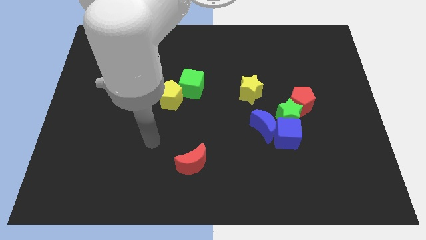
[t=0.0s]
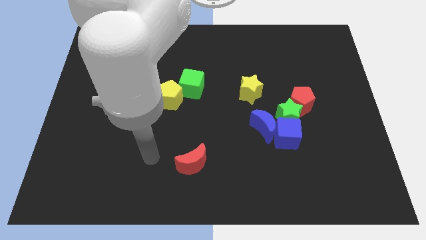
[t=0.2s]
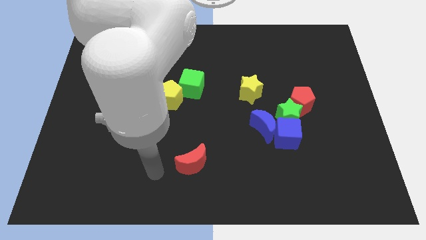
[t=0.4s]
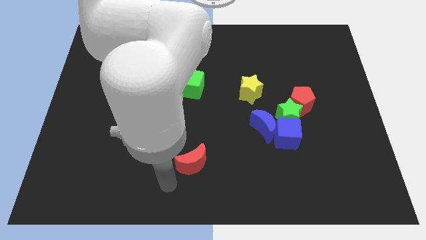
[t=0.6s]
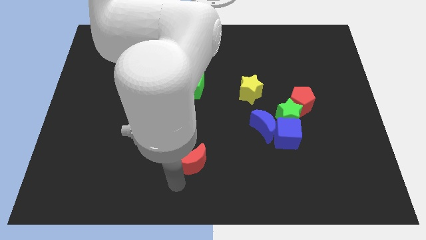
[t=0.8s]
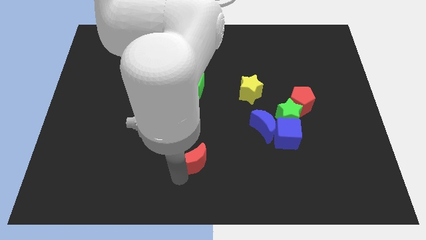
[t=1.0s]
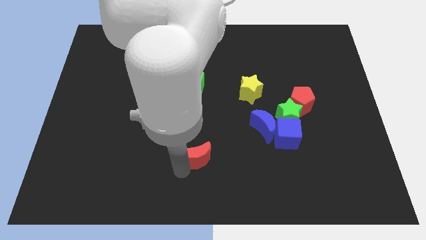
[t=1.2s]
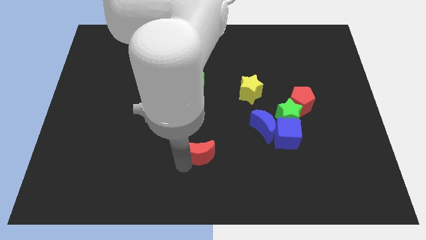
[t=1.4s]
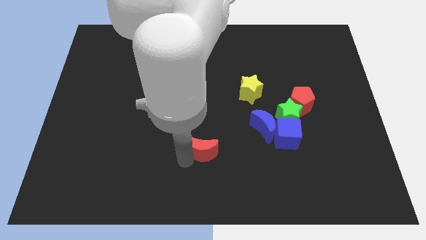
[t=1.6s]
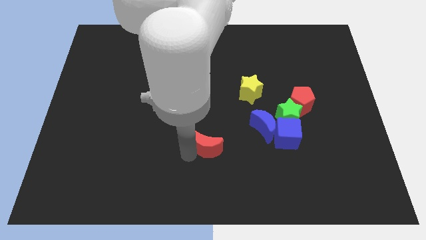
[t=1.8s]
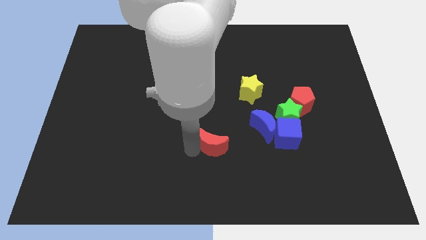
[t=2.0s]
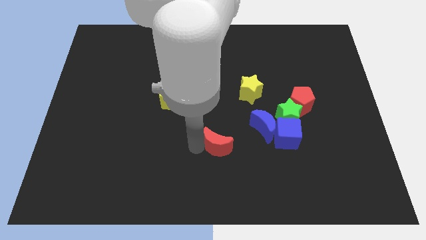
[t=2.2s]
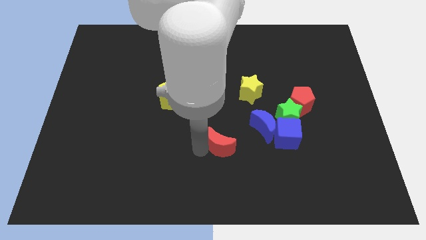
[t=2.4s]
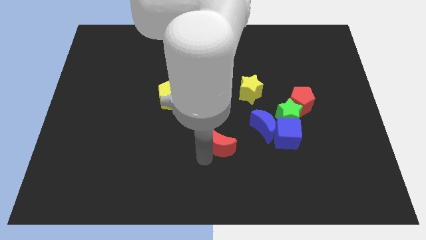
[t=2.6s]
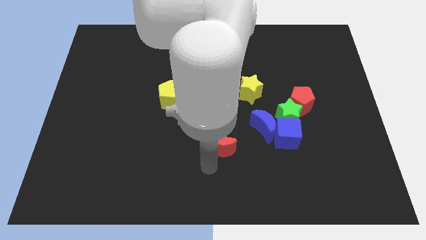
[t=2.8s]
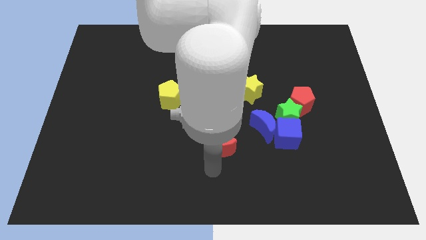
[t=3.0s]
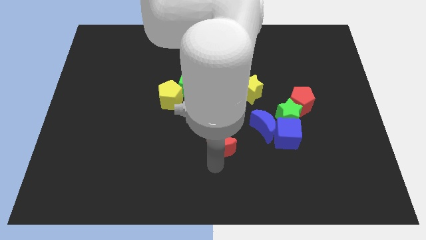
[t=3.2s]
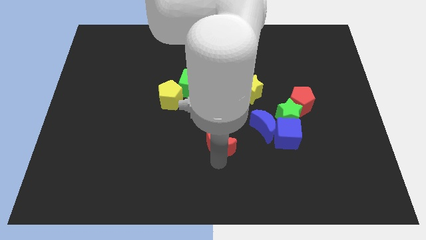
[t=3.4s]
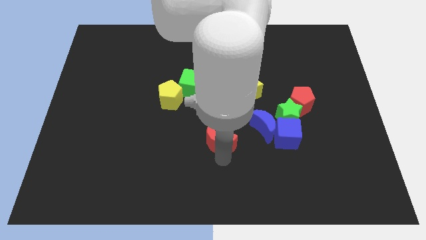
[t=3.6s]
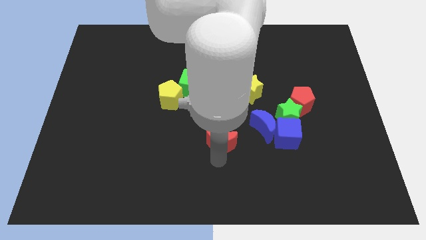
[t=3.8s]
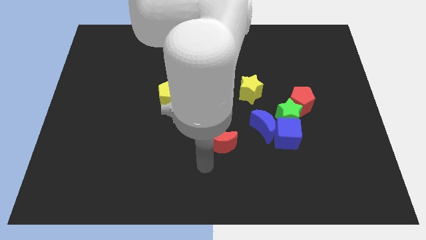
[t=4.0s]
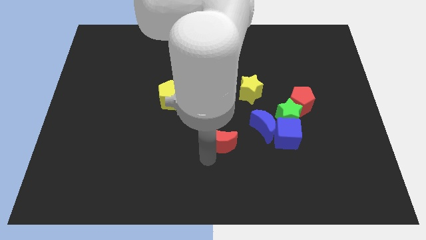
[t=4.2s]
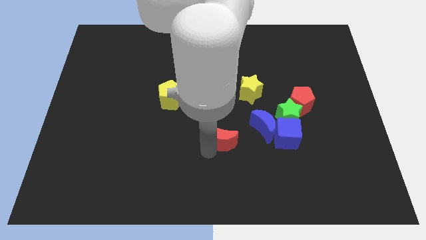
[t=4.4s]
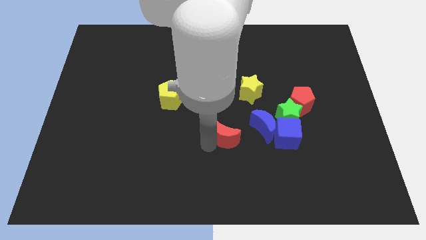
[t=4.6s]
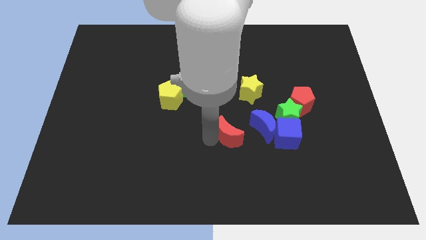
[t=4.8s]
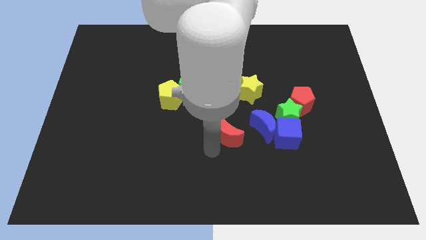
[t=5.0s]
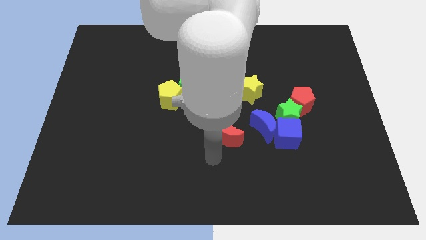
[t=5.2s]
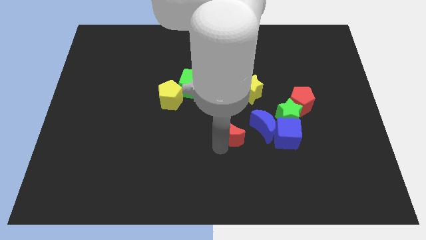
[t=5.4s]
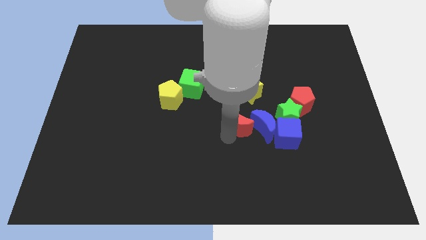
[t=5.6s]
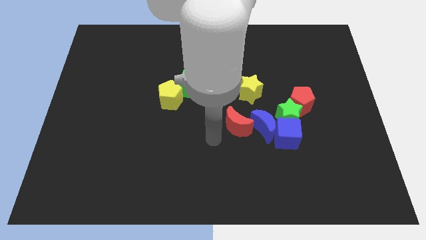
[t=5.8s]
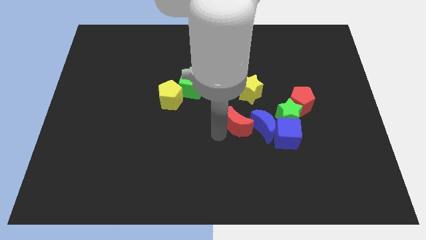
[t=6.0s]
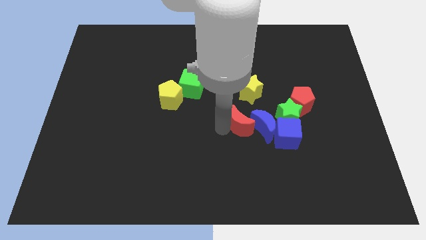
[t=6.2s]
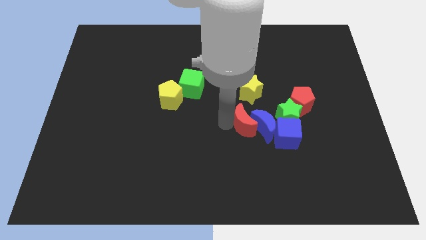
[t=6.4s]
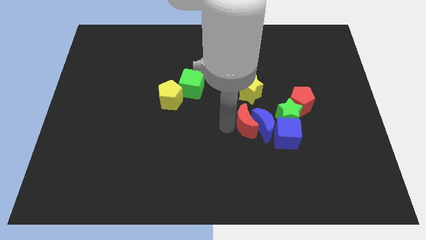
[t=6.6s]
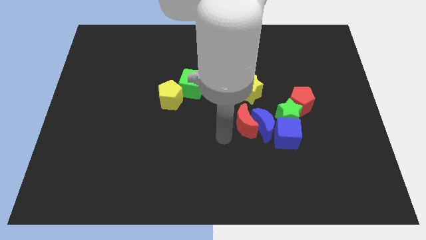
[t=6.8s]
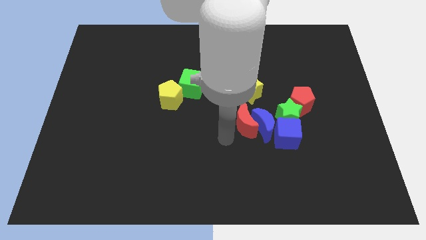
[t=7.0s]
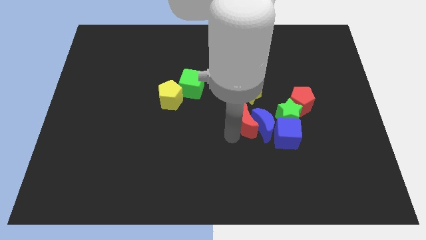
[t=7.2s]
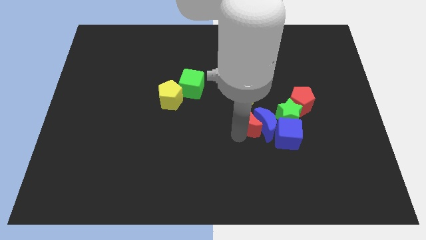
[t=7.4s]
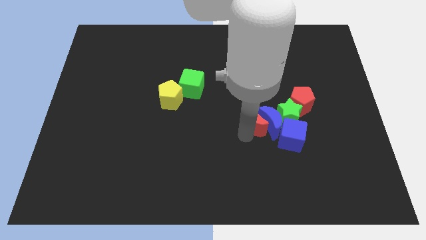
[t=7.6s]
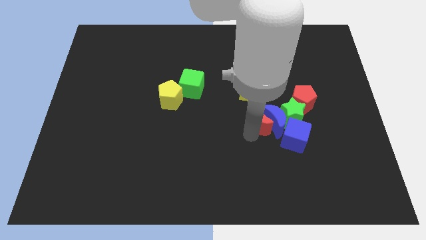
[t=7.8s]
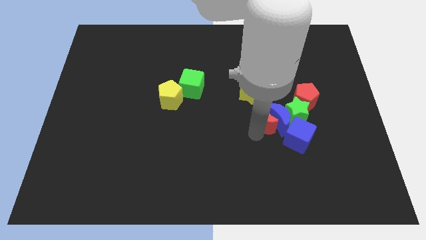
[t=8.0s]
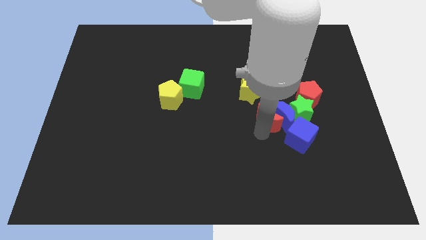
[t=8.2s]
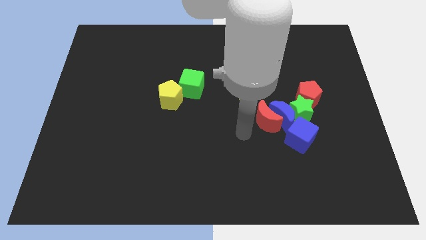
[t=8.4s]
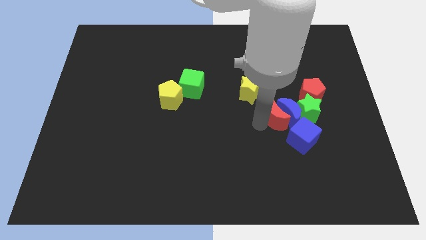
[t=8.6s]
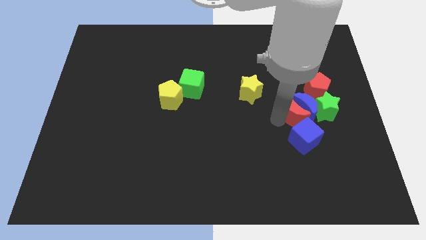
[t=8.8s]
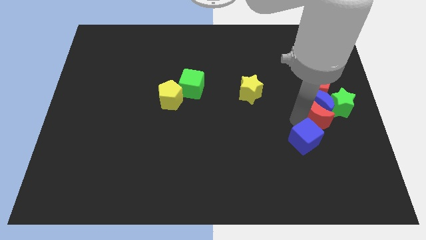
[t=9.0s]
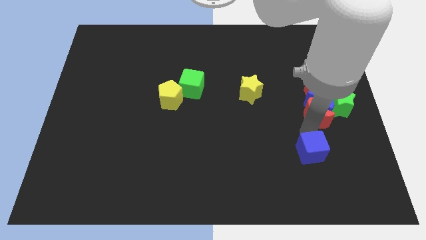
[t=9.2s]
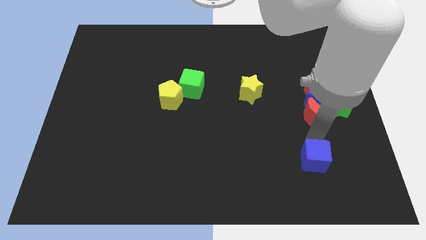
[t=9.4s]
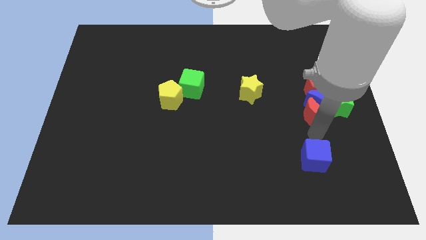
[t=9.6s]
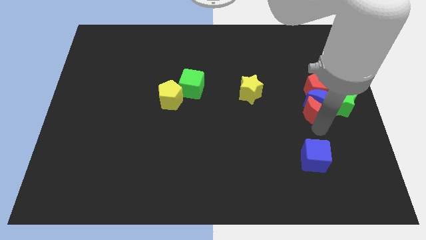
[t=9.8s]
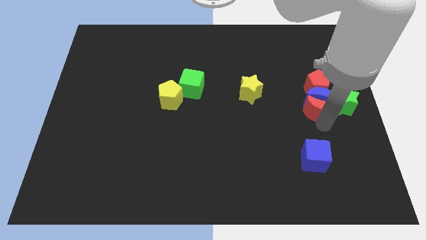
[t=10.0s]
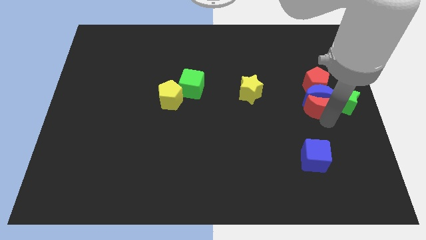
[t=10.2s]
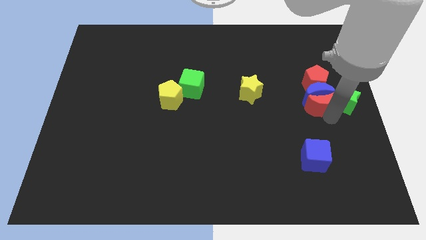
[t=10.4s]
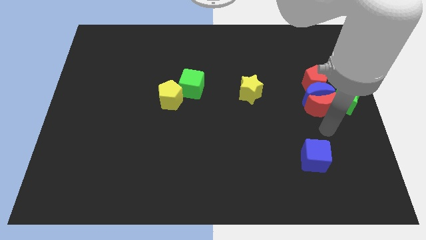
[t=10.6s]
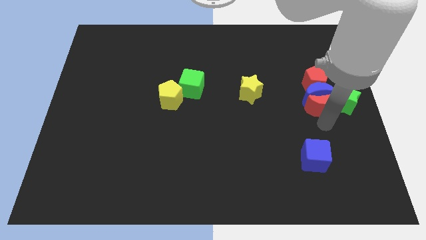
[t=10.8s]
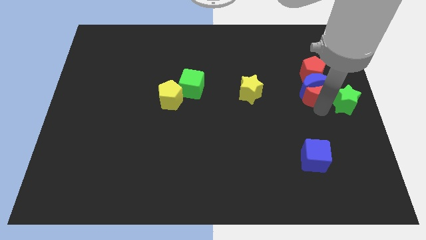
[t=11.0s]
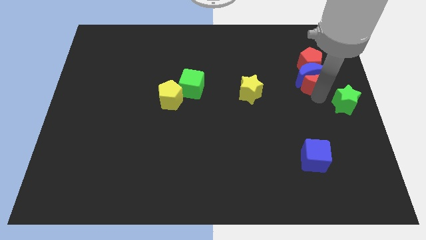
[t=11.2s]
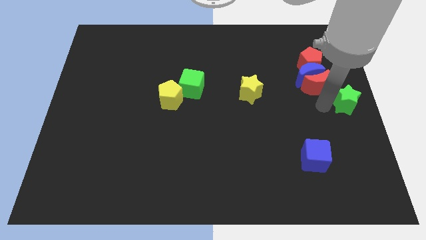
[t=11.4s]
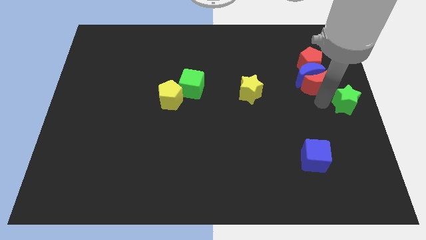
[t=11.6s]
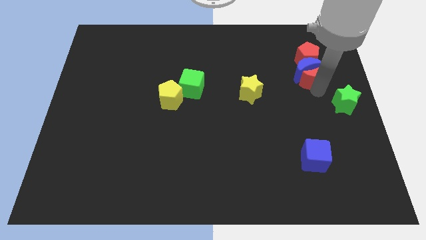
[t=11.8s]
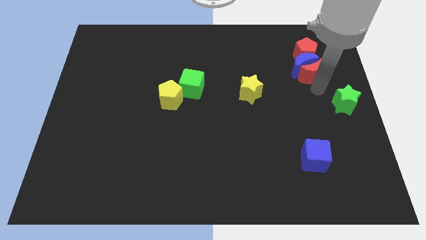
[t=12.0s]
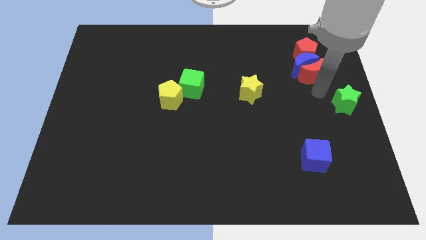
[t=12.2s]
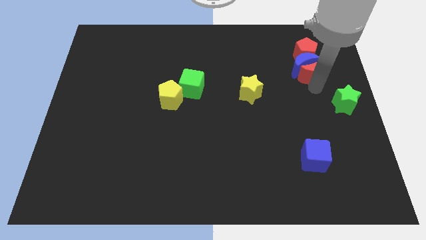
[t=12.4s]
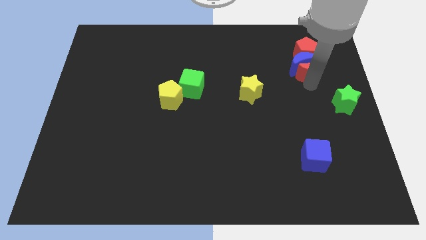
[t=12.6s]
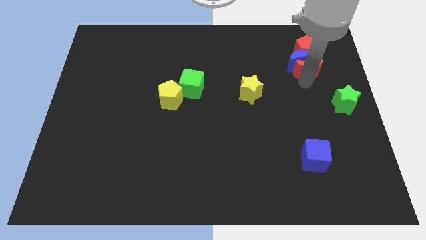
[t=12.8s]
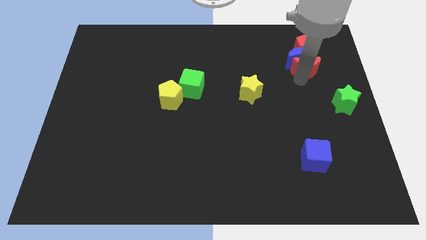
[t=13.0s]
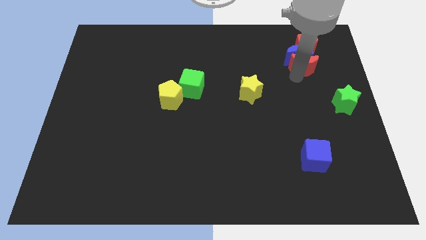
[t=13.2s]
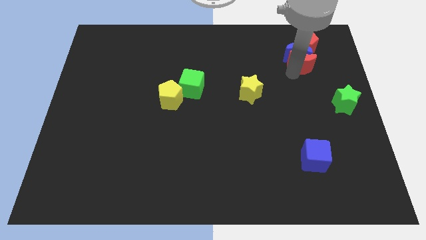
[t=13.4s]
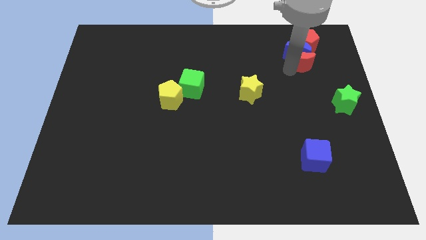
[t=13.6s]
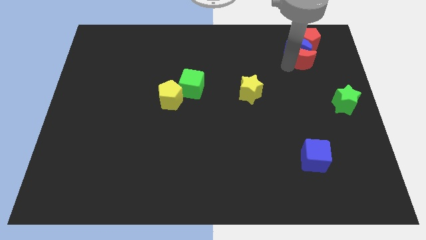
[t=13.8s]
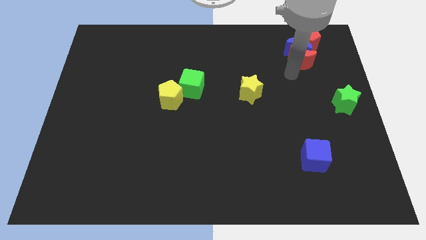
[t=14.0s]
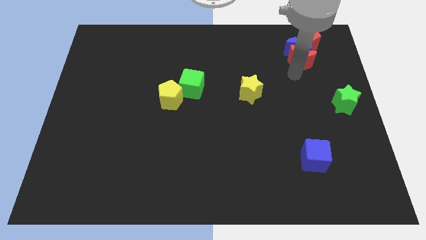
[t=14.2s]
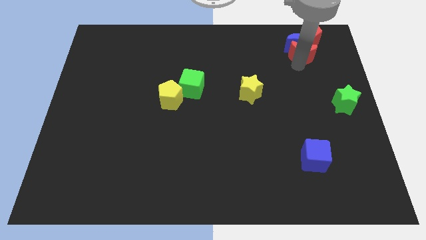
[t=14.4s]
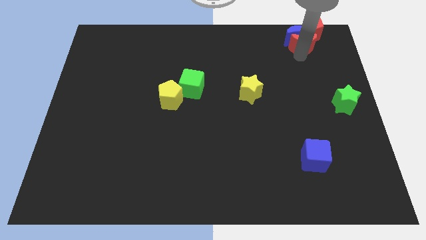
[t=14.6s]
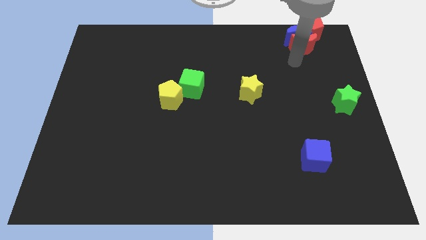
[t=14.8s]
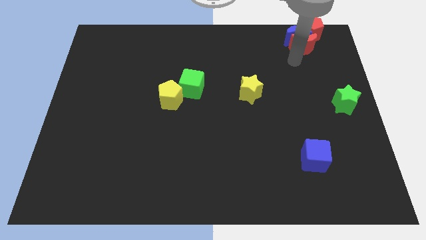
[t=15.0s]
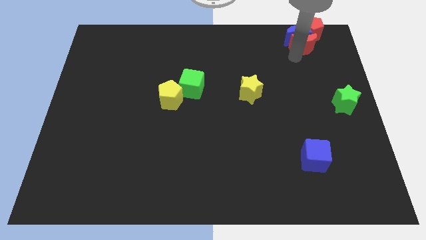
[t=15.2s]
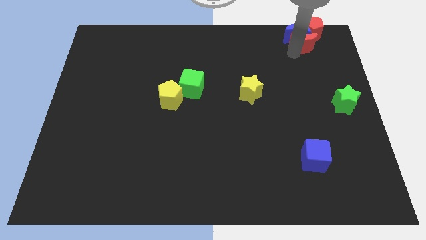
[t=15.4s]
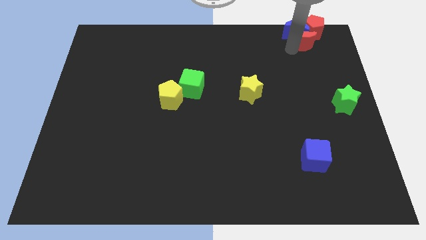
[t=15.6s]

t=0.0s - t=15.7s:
put the red moon close to the red pentagon
